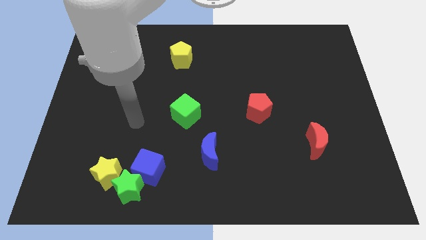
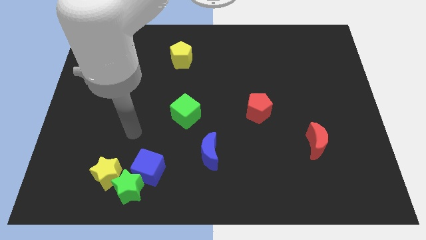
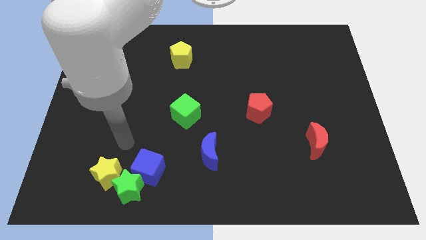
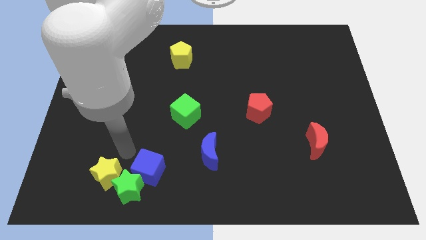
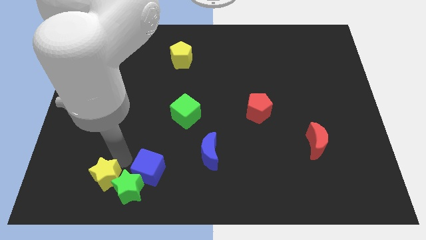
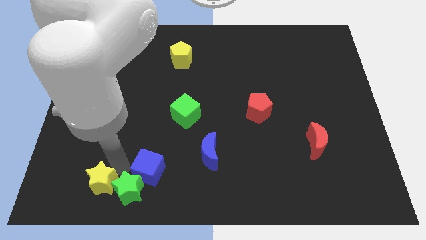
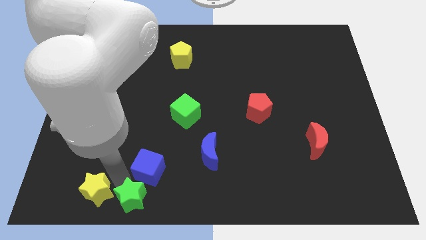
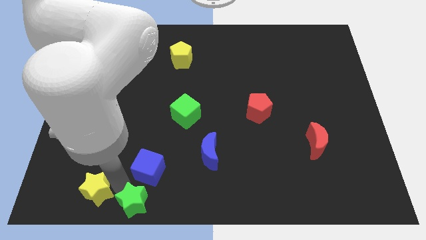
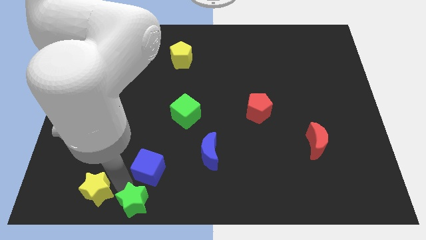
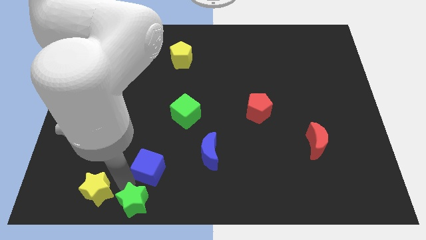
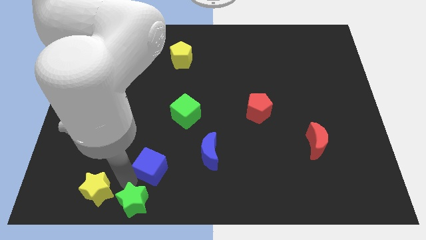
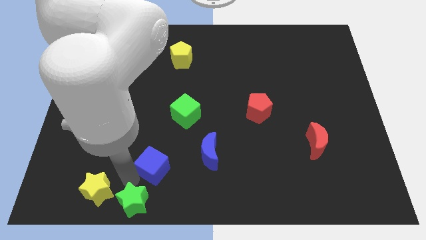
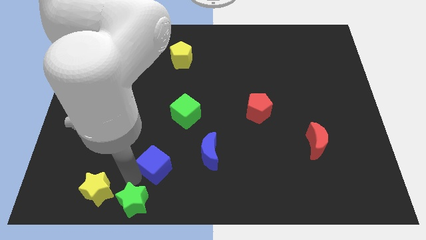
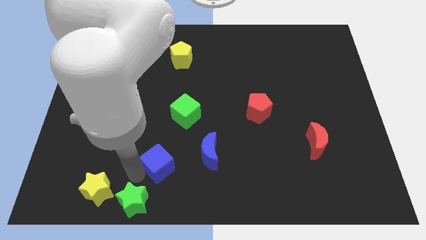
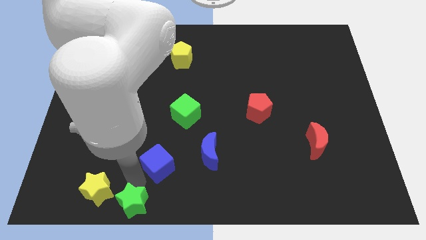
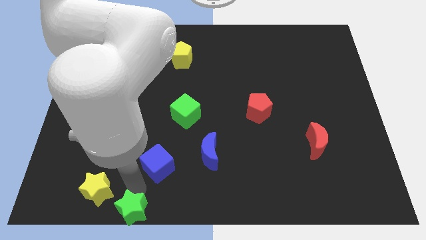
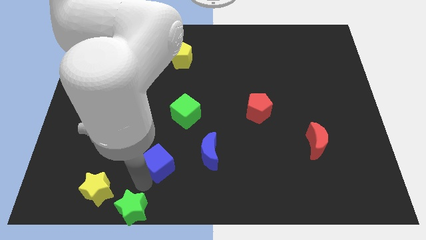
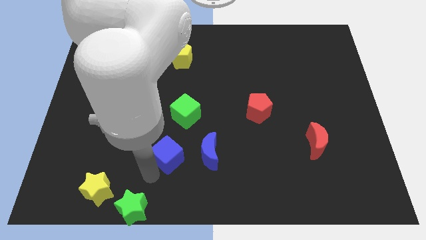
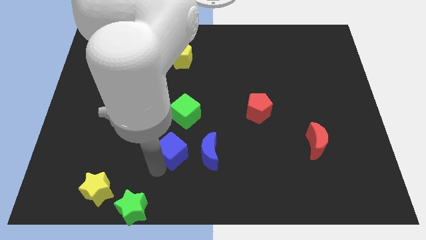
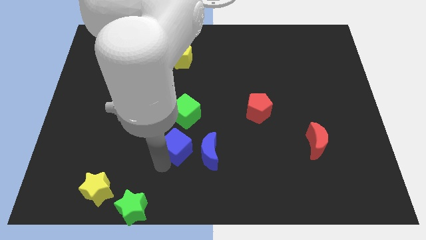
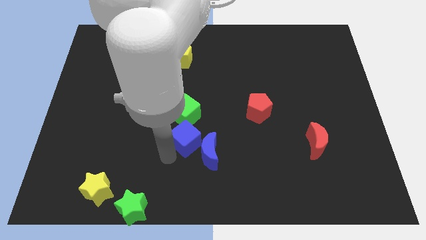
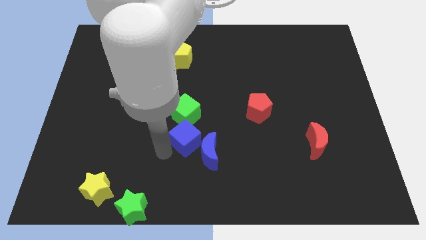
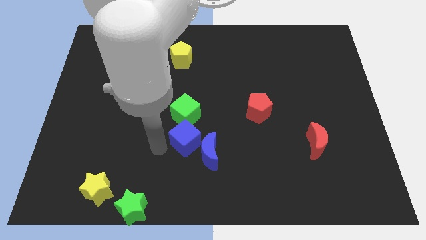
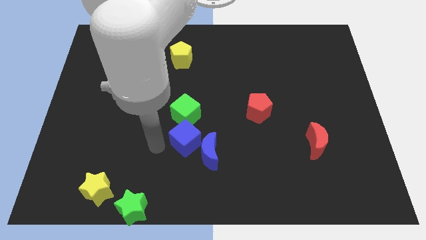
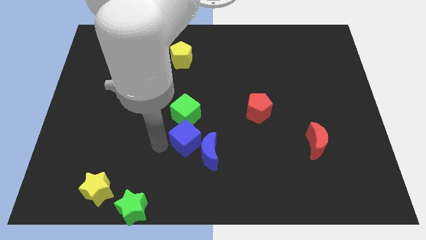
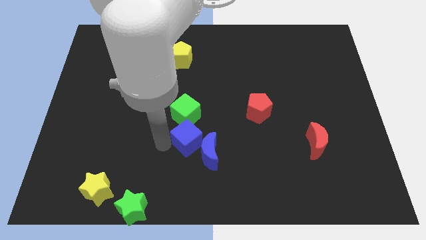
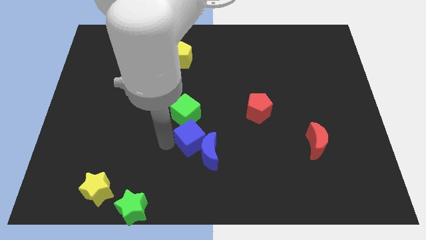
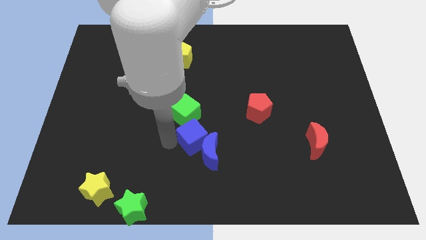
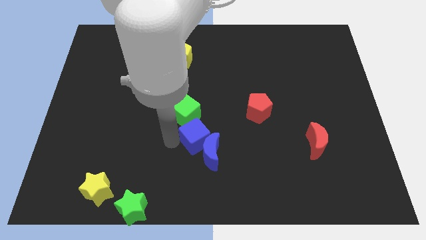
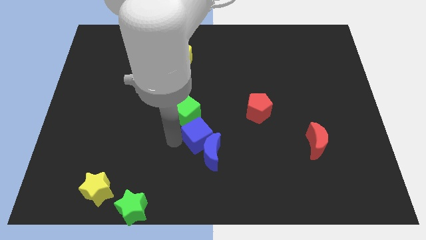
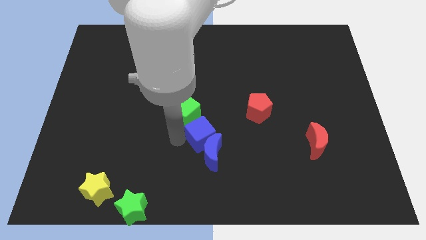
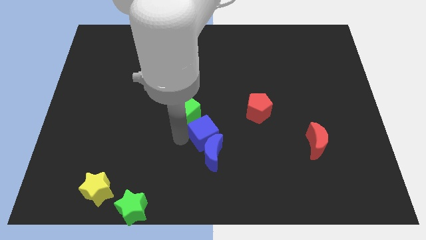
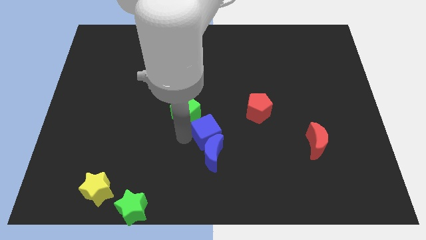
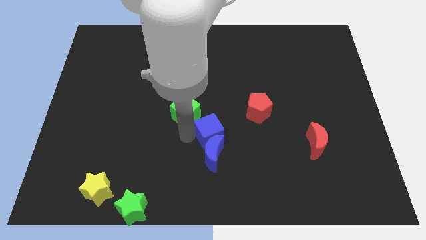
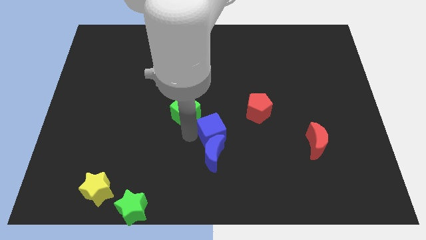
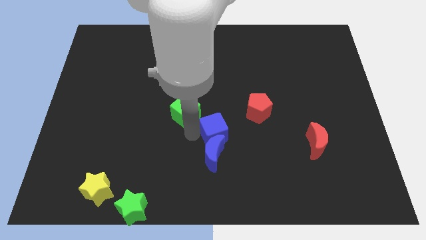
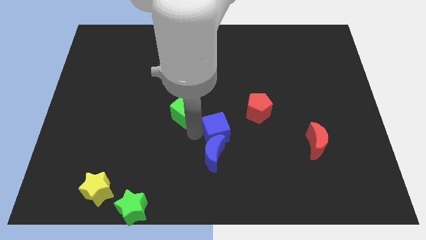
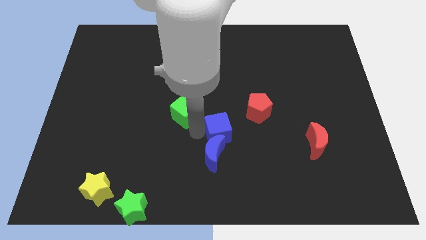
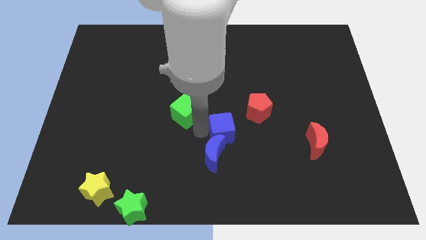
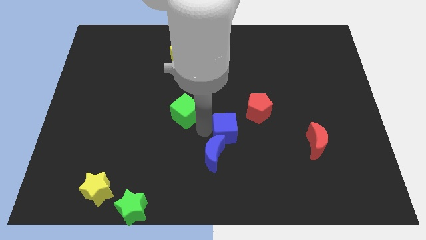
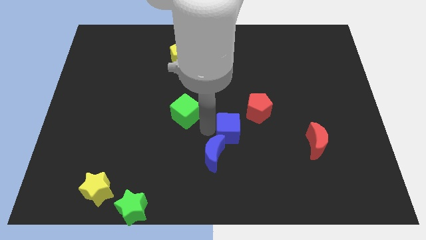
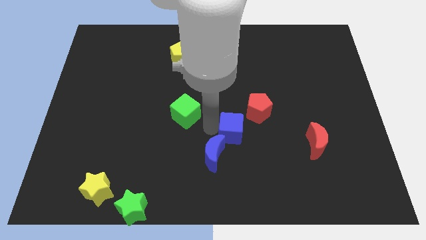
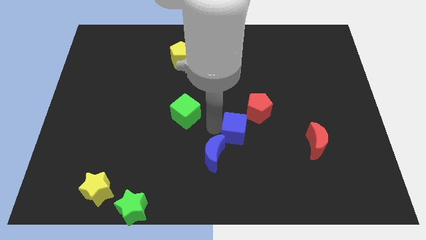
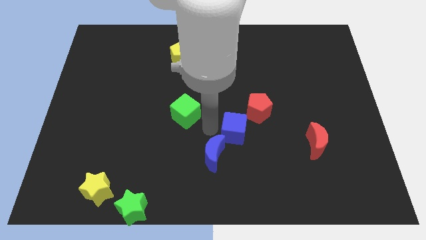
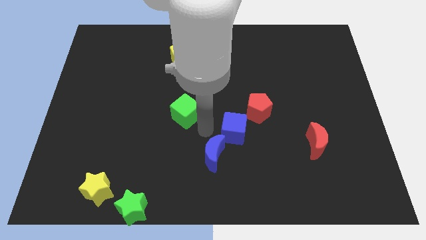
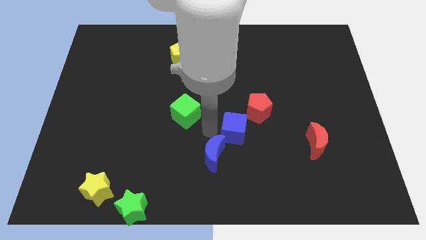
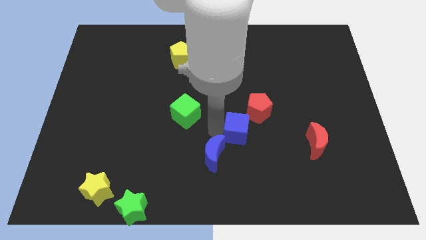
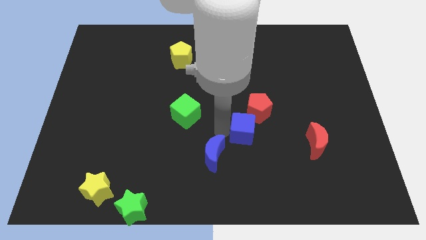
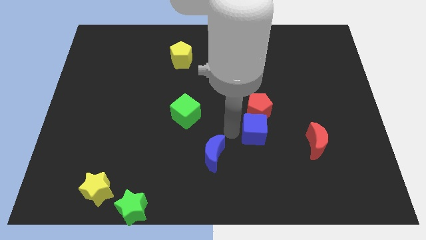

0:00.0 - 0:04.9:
put the blue cube to the bottom right of the red pentagon

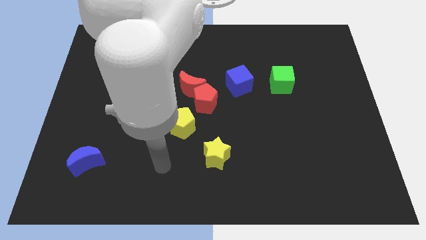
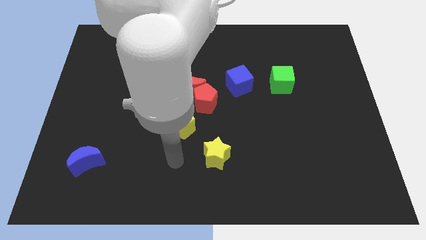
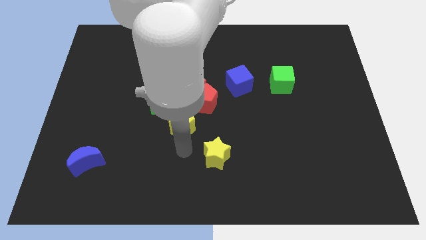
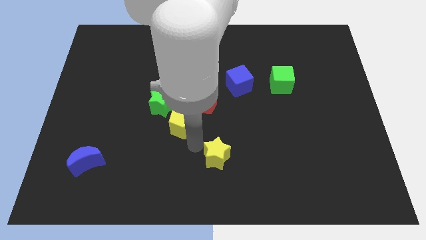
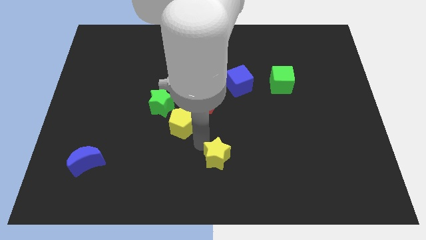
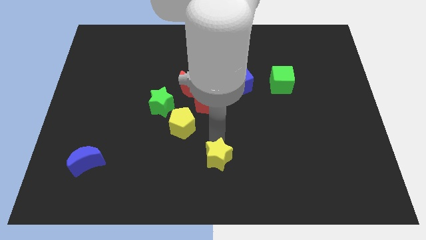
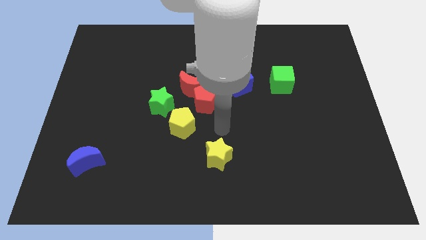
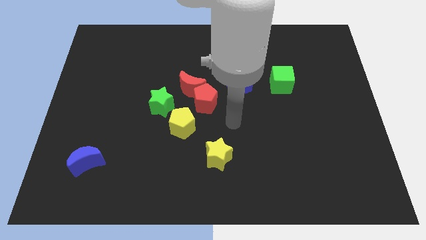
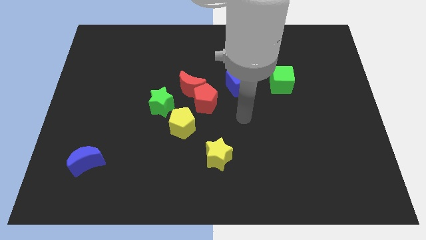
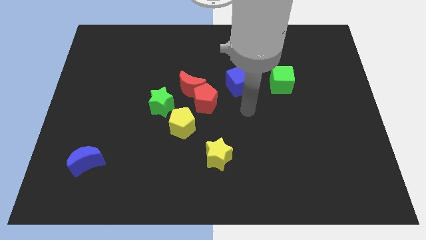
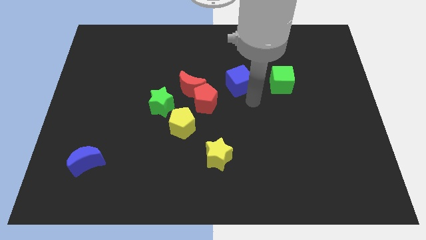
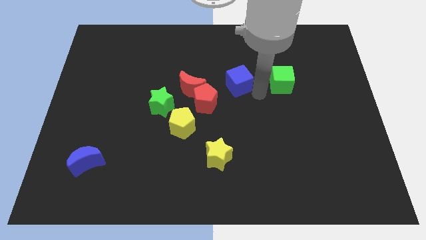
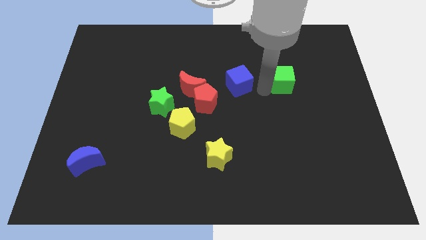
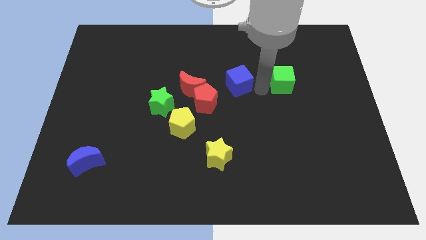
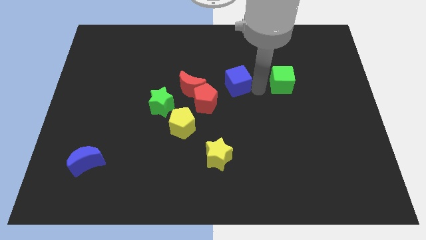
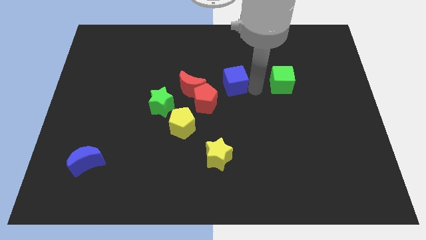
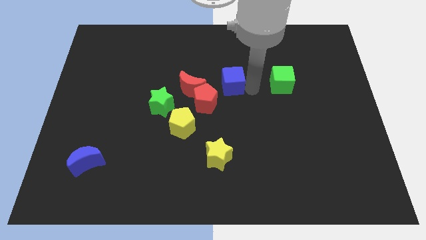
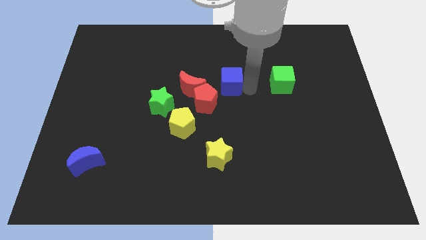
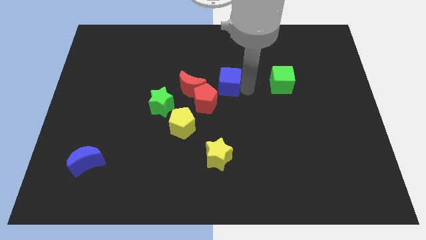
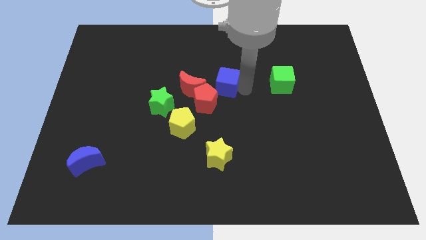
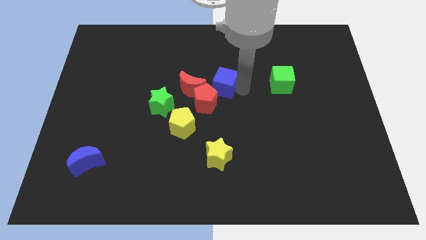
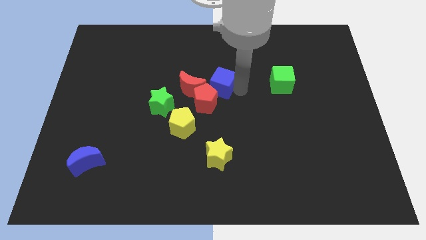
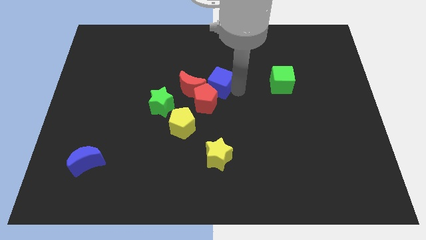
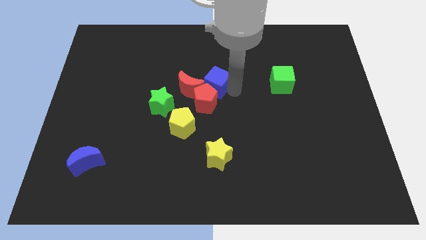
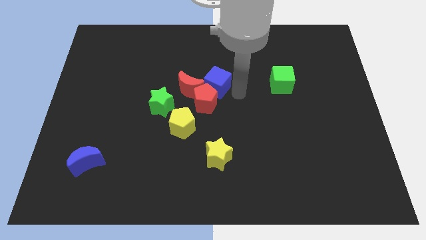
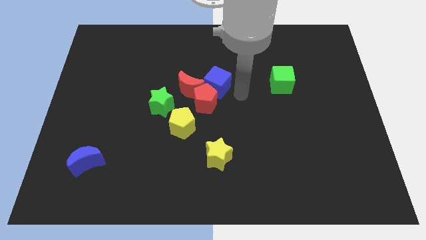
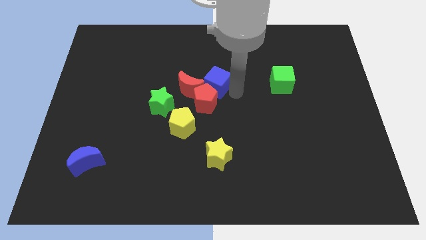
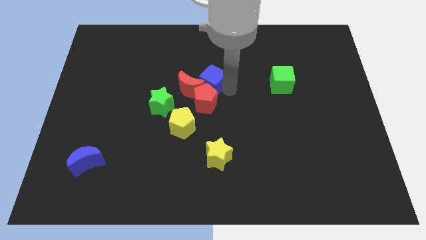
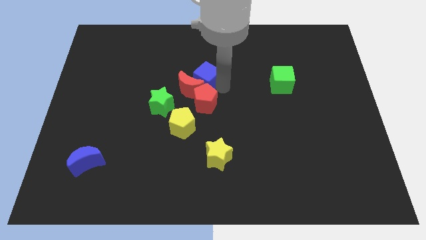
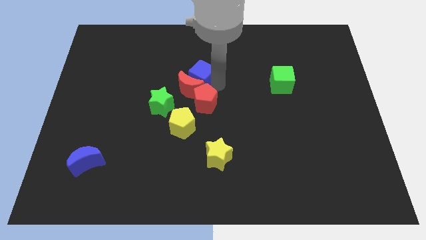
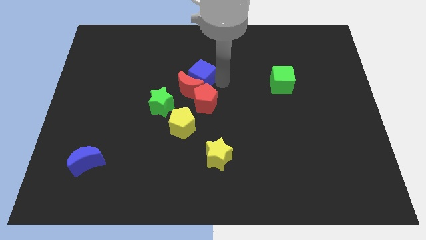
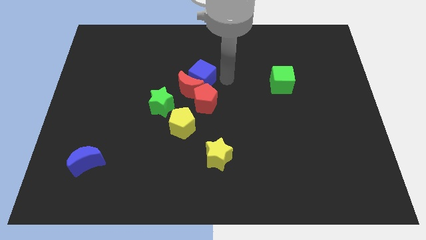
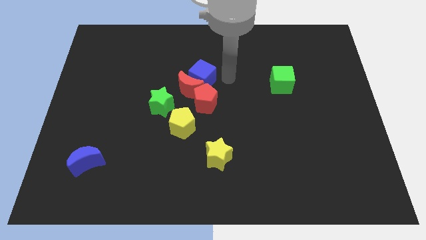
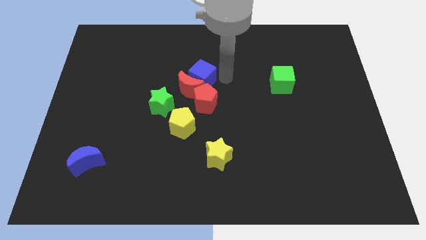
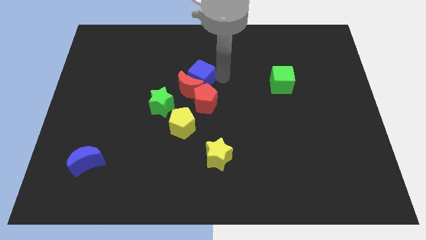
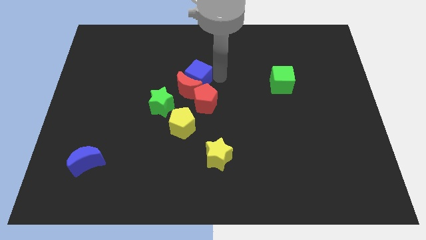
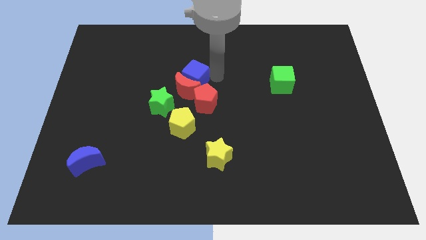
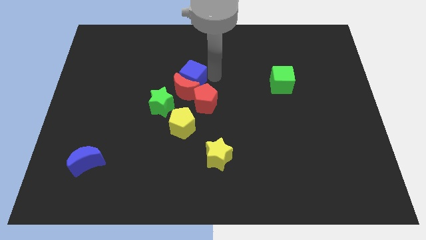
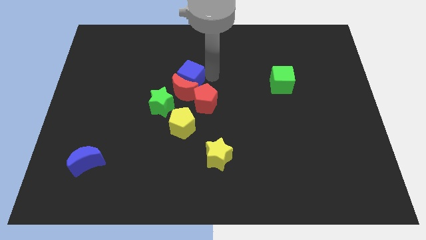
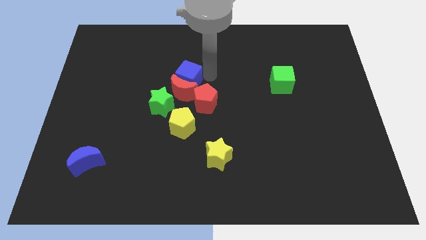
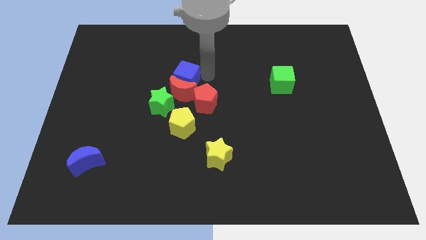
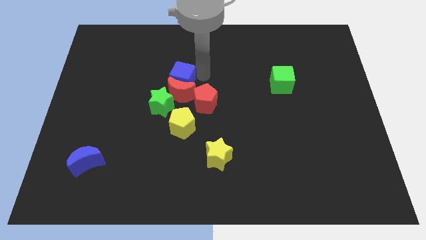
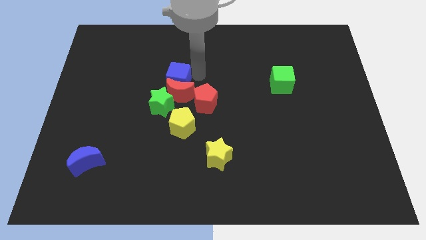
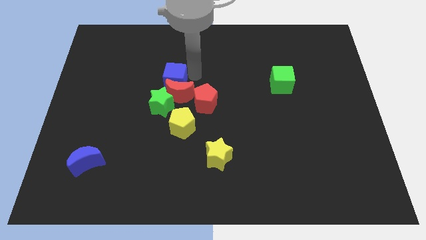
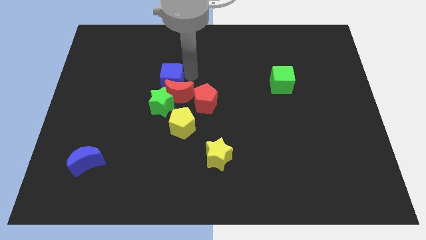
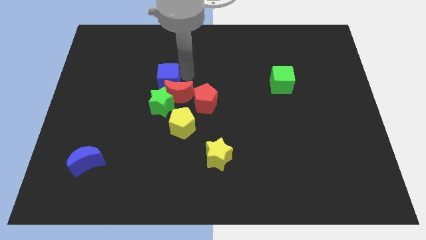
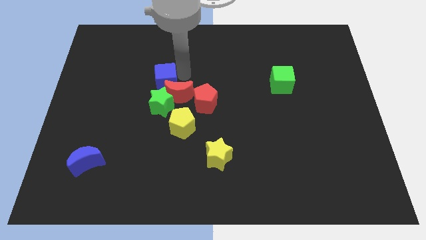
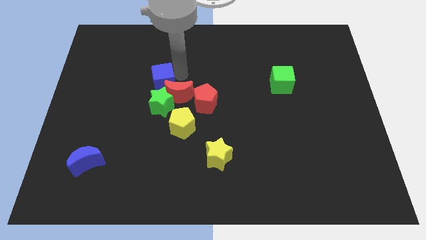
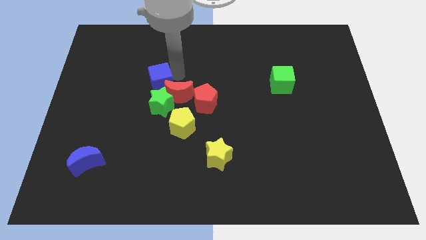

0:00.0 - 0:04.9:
push the blue cube to the top left of the green star
